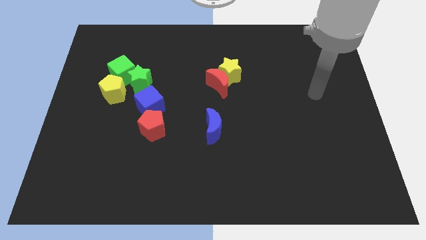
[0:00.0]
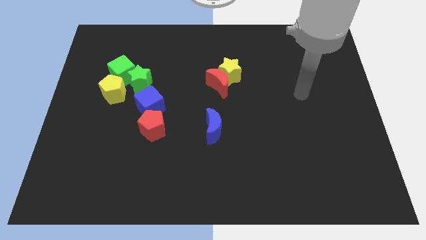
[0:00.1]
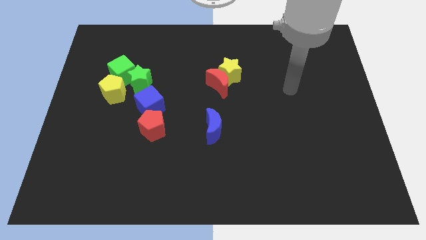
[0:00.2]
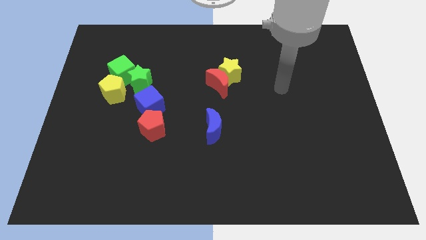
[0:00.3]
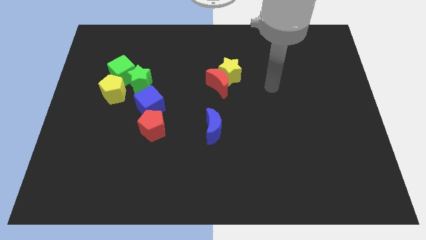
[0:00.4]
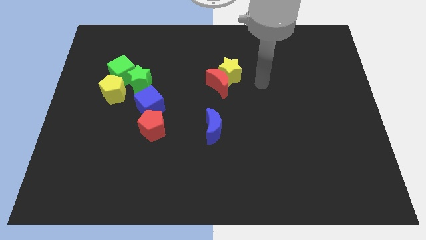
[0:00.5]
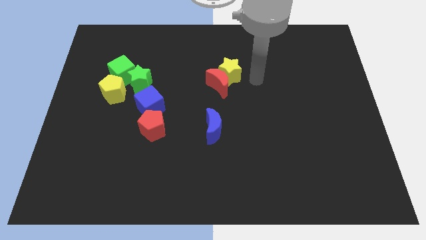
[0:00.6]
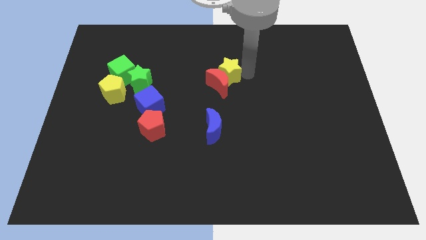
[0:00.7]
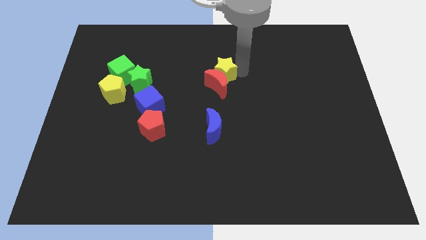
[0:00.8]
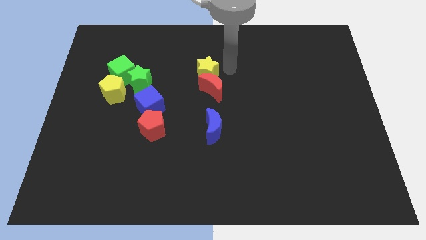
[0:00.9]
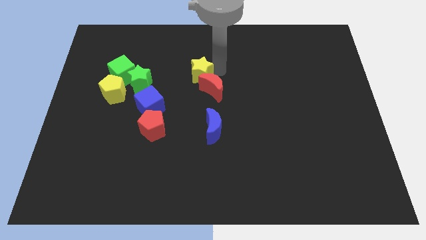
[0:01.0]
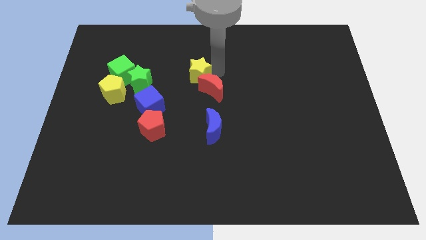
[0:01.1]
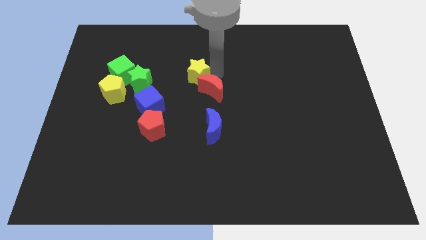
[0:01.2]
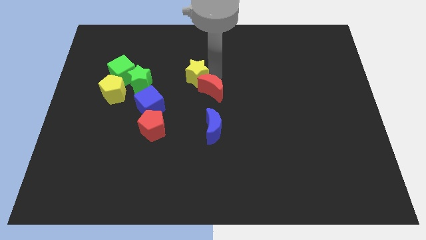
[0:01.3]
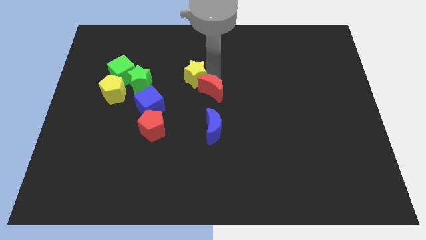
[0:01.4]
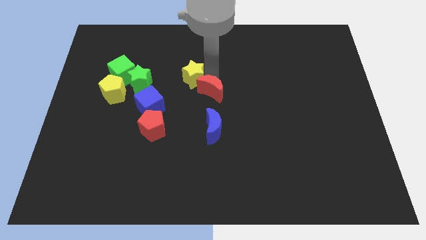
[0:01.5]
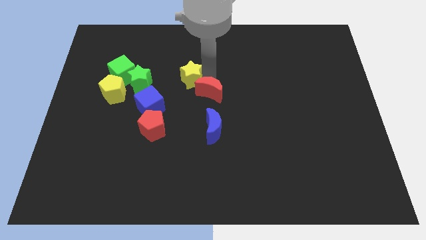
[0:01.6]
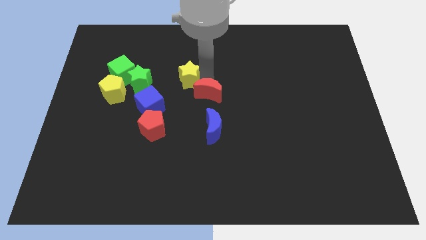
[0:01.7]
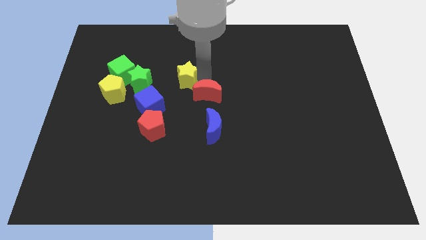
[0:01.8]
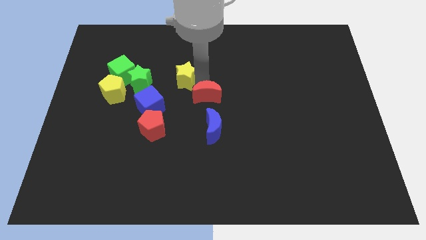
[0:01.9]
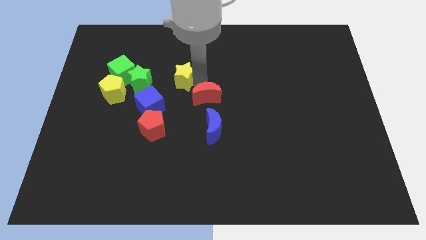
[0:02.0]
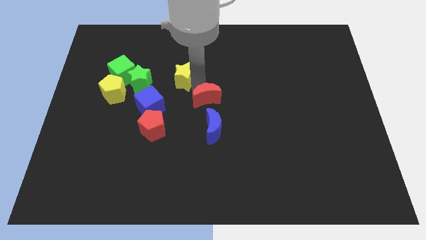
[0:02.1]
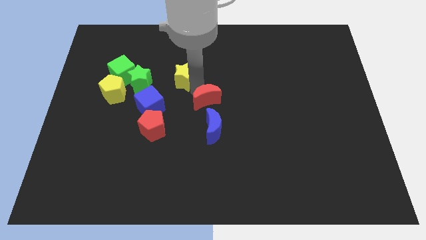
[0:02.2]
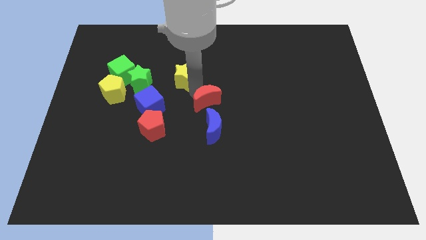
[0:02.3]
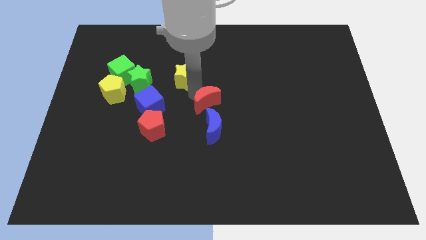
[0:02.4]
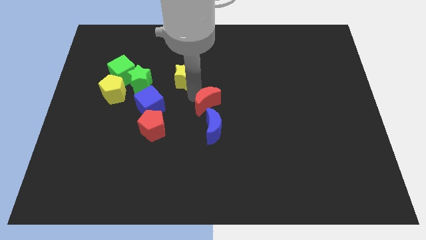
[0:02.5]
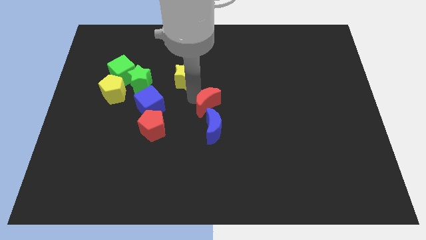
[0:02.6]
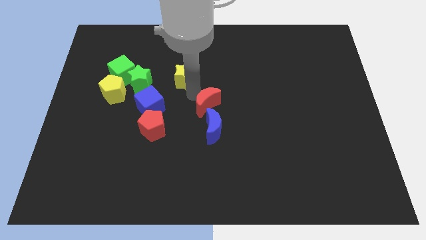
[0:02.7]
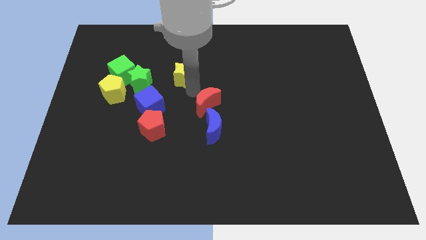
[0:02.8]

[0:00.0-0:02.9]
separate the red moon from the yellow star

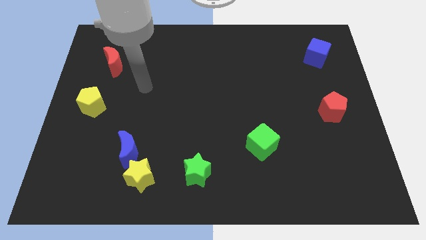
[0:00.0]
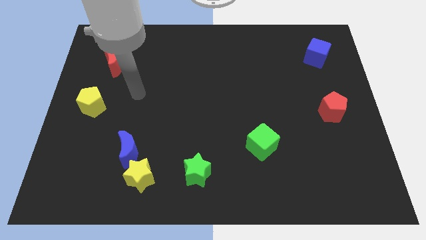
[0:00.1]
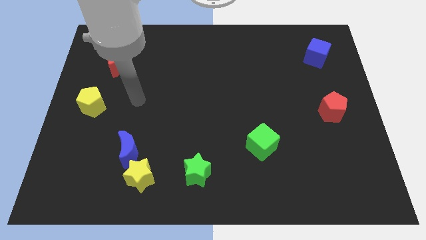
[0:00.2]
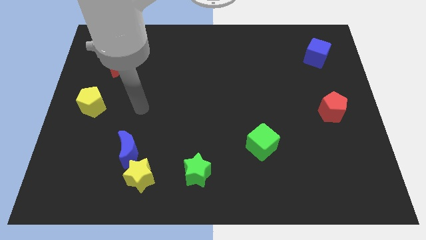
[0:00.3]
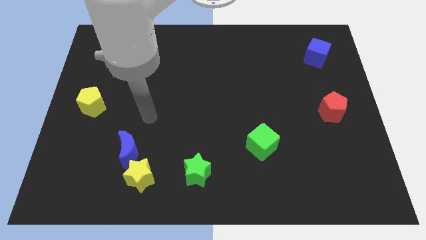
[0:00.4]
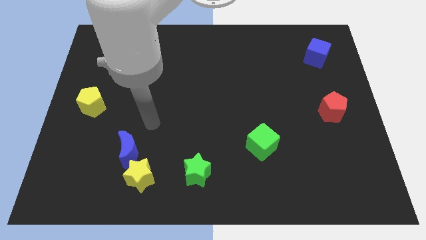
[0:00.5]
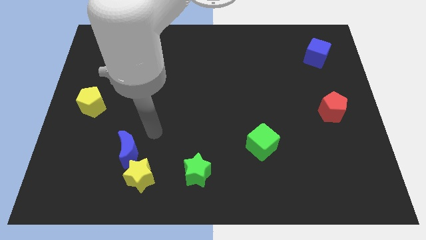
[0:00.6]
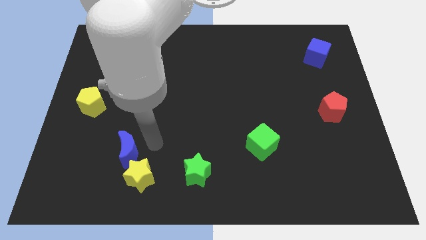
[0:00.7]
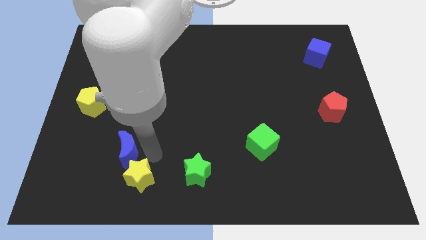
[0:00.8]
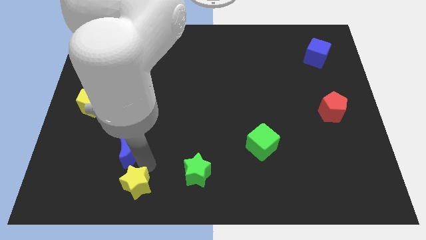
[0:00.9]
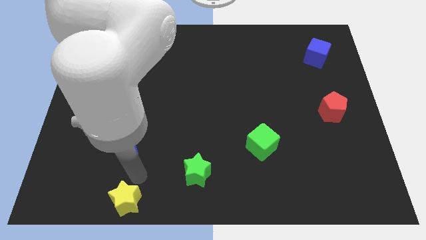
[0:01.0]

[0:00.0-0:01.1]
move the blue moon away from the yellow star

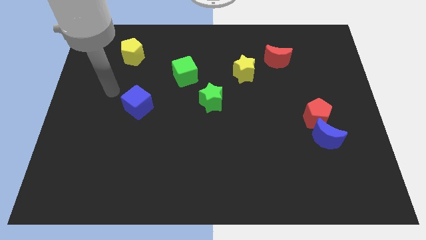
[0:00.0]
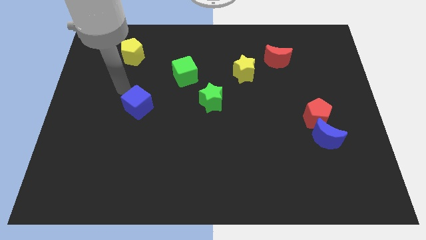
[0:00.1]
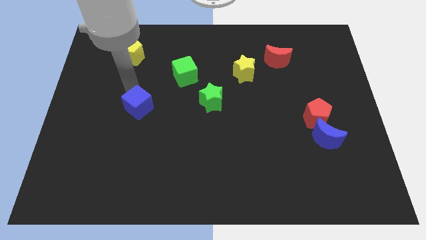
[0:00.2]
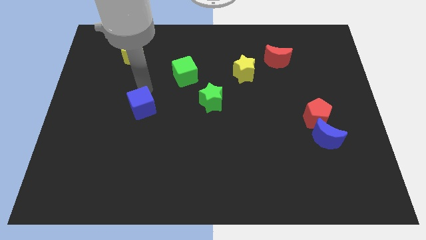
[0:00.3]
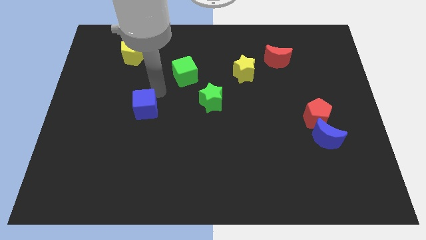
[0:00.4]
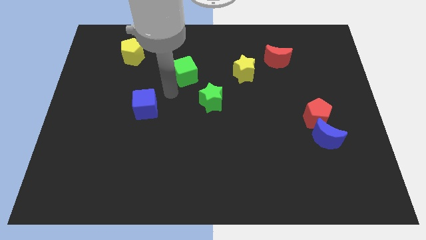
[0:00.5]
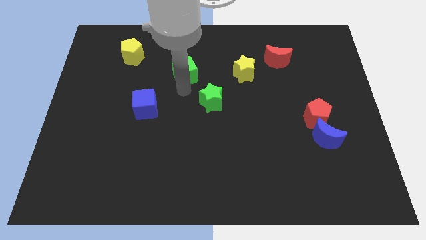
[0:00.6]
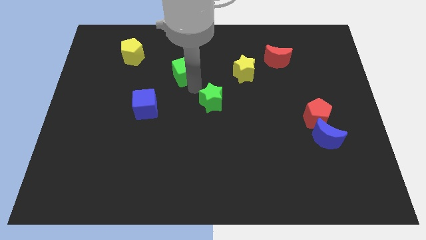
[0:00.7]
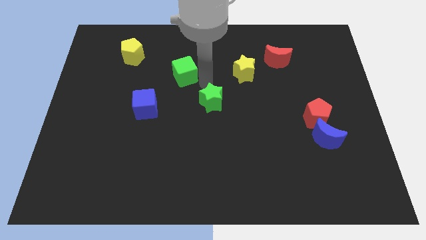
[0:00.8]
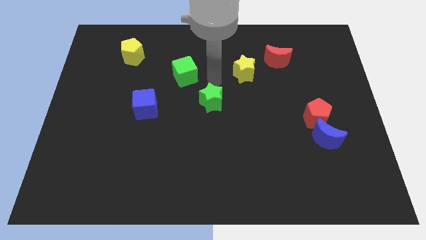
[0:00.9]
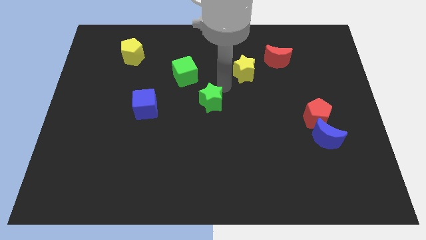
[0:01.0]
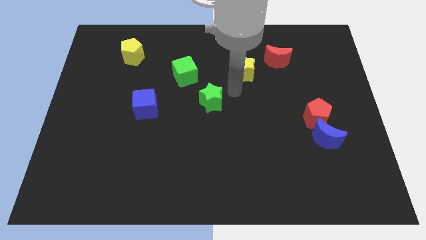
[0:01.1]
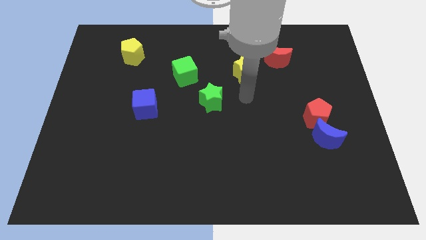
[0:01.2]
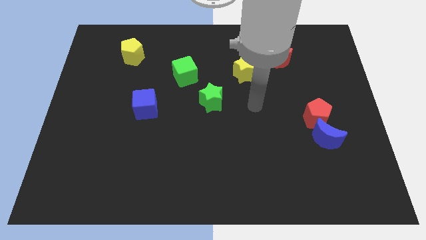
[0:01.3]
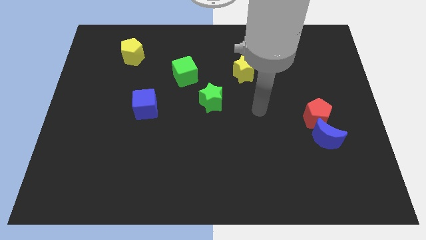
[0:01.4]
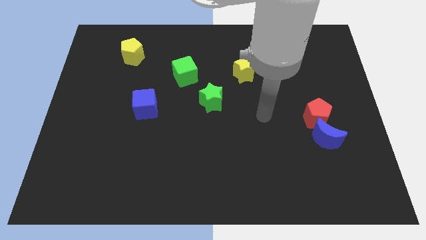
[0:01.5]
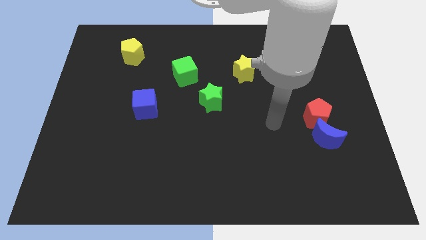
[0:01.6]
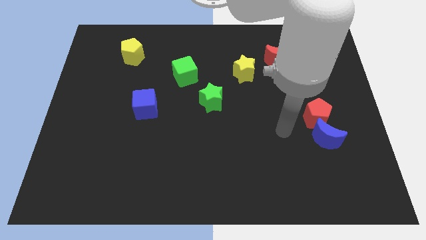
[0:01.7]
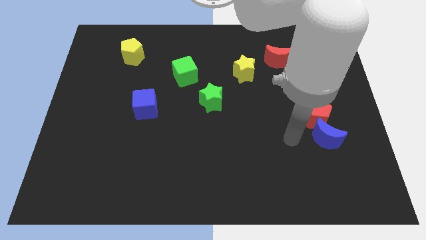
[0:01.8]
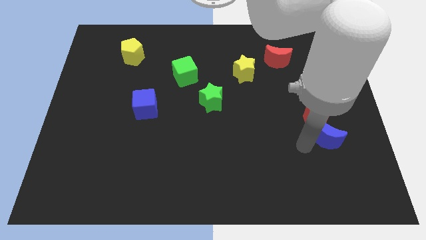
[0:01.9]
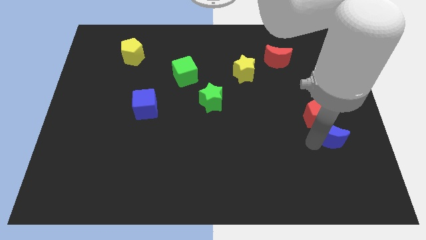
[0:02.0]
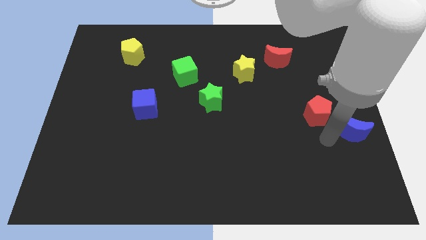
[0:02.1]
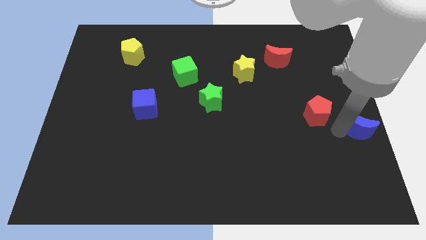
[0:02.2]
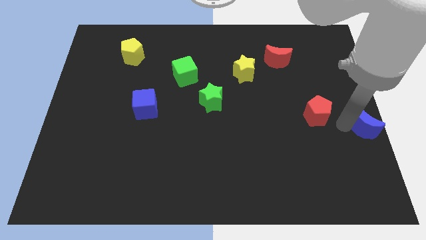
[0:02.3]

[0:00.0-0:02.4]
separate the red pentagon from the blue moon

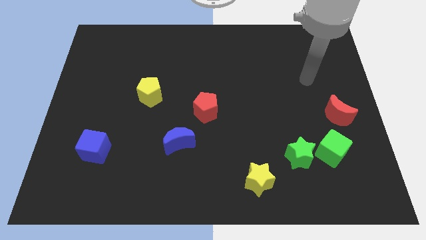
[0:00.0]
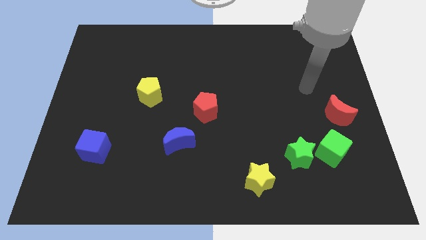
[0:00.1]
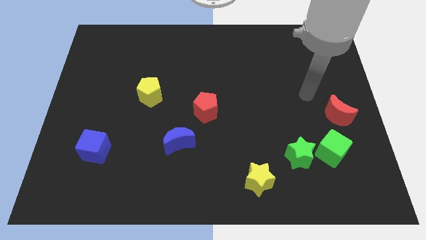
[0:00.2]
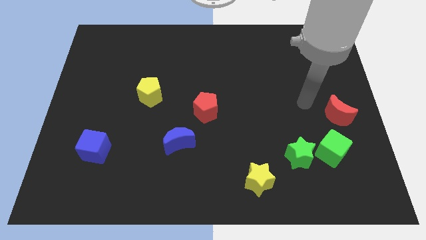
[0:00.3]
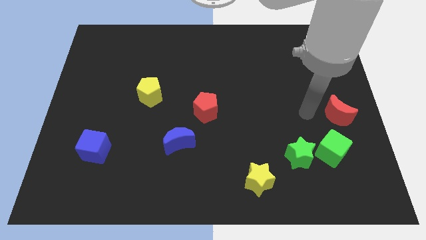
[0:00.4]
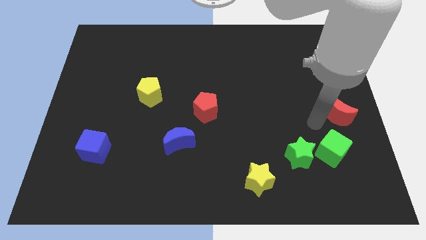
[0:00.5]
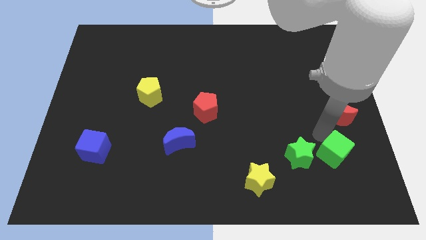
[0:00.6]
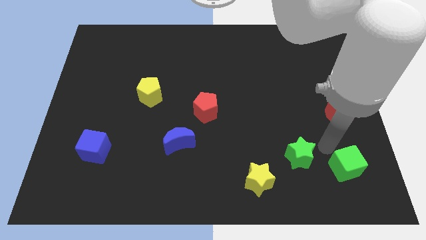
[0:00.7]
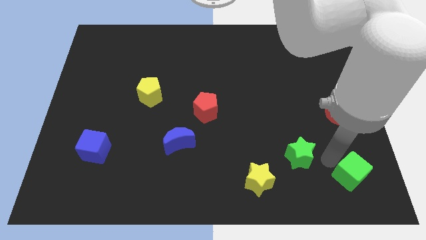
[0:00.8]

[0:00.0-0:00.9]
pull the green star apart from the green cube

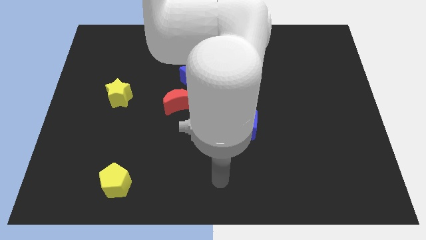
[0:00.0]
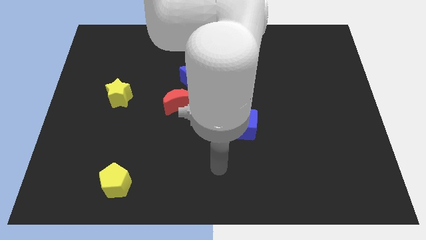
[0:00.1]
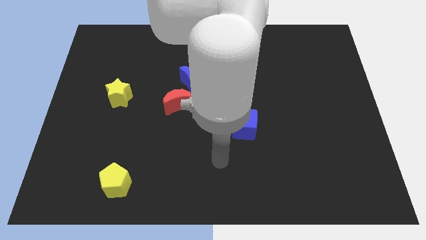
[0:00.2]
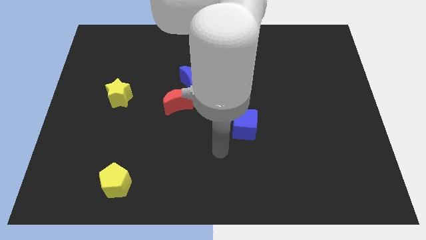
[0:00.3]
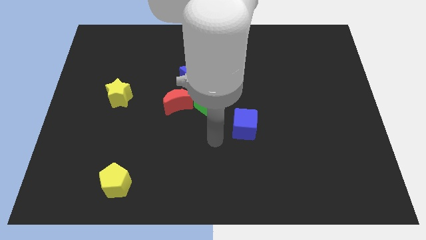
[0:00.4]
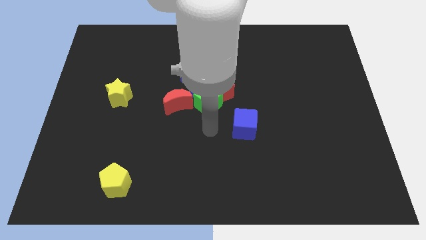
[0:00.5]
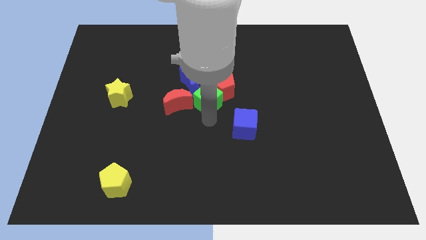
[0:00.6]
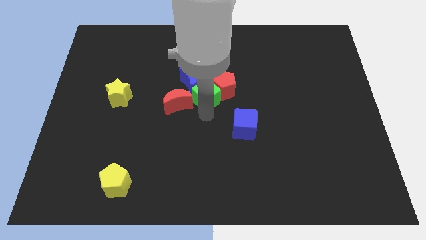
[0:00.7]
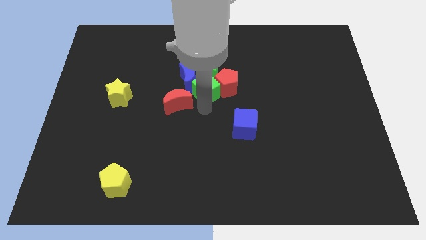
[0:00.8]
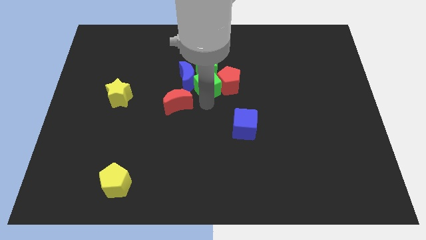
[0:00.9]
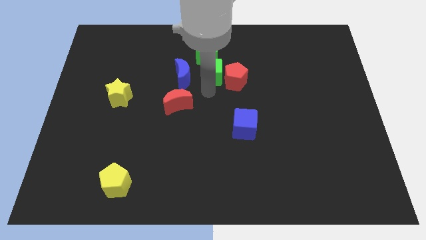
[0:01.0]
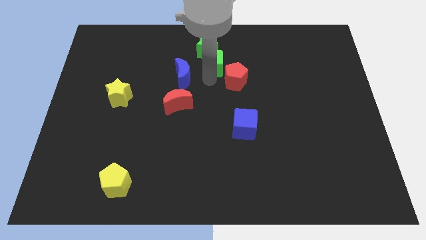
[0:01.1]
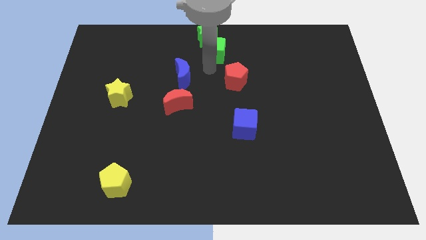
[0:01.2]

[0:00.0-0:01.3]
separate the green star from the blue moon, red pentagon, and green cube

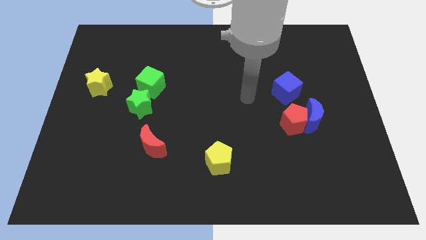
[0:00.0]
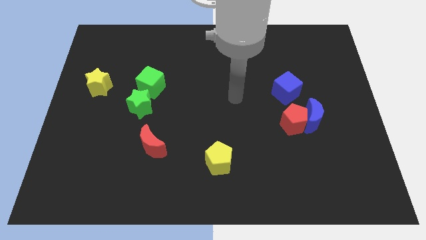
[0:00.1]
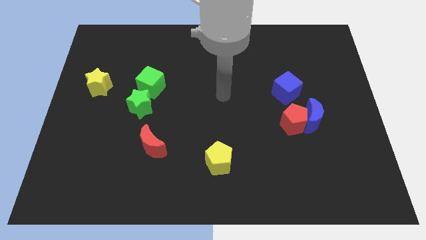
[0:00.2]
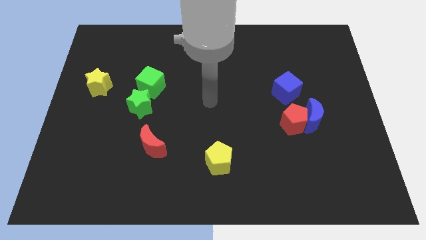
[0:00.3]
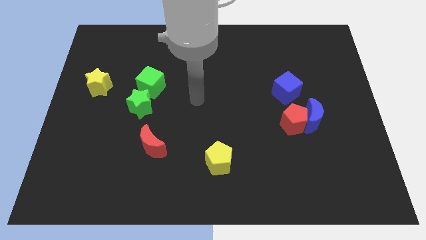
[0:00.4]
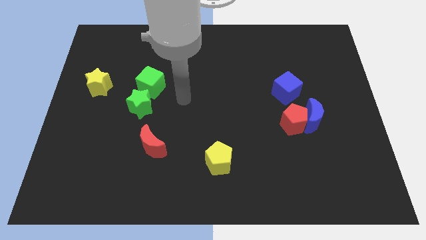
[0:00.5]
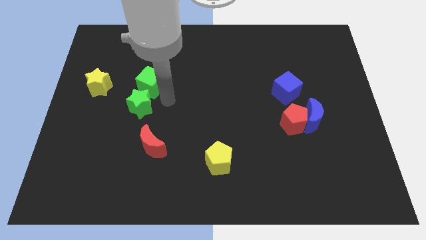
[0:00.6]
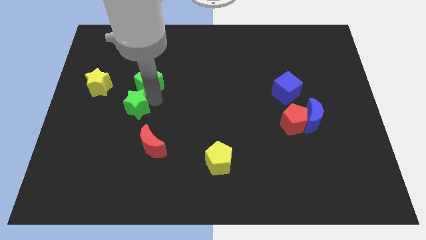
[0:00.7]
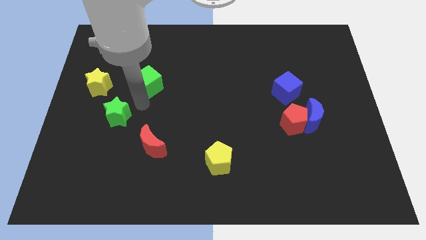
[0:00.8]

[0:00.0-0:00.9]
pull the green cube apart from the green star
